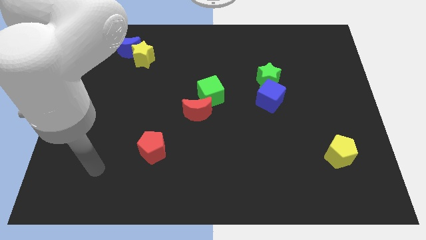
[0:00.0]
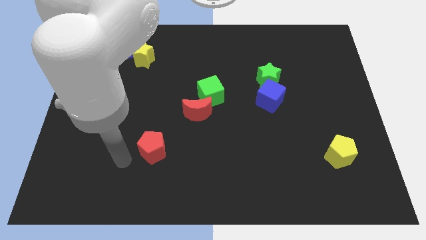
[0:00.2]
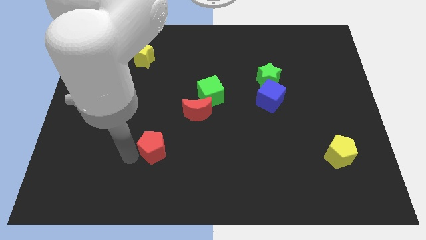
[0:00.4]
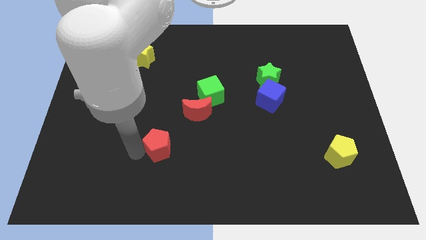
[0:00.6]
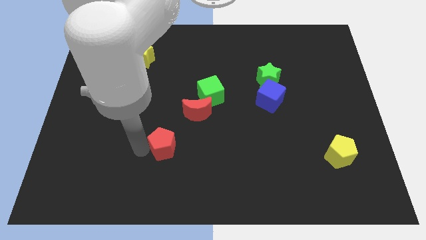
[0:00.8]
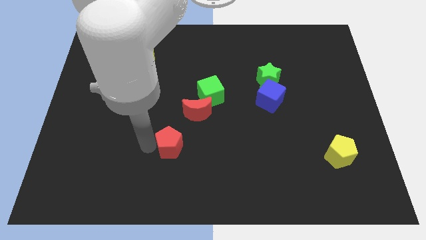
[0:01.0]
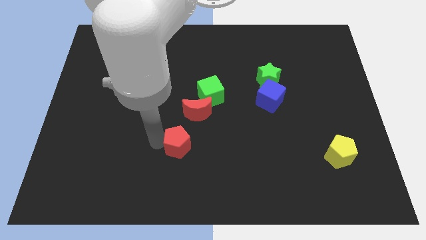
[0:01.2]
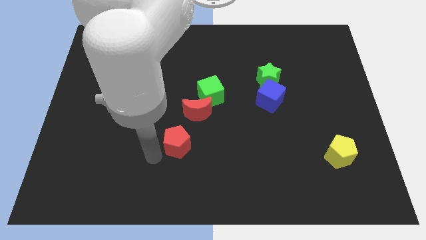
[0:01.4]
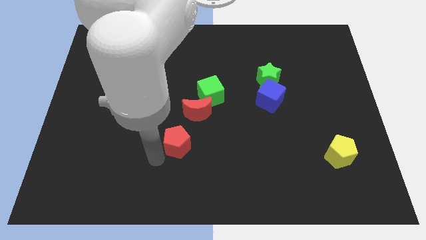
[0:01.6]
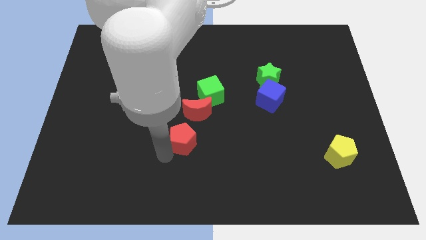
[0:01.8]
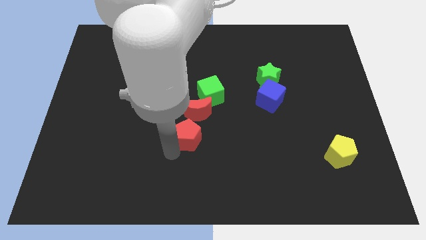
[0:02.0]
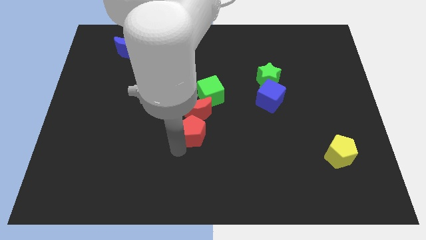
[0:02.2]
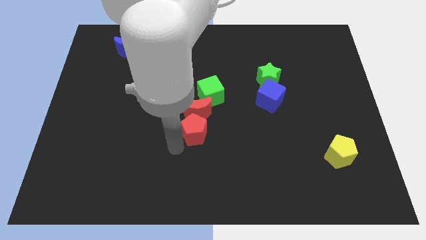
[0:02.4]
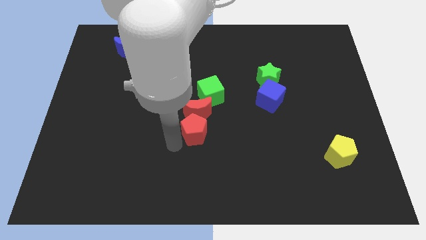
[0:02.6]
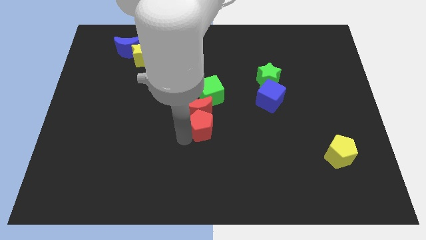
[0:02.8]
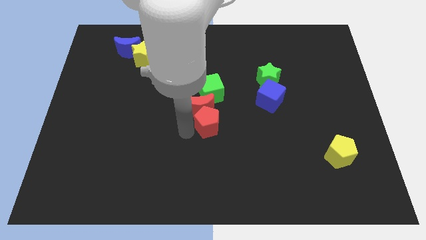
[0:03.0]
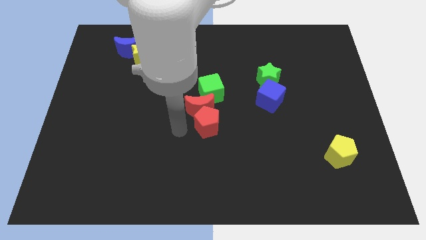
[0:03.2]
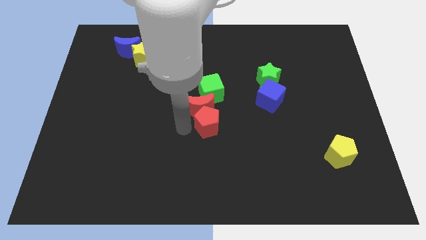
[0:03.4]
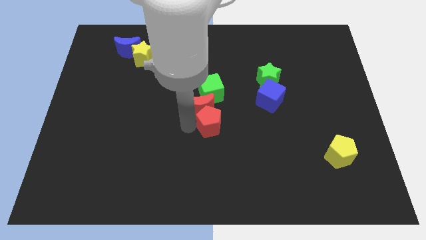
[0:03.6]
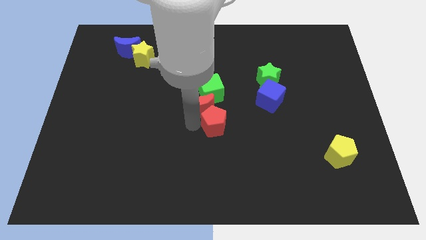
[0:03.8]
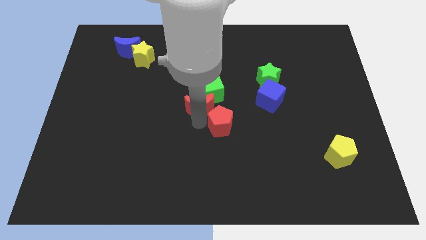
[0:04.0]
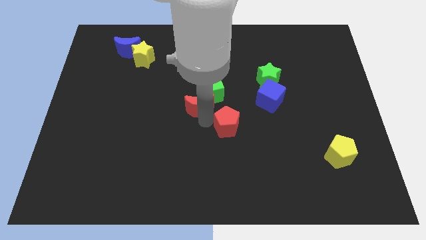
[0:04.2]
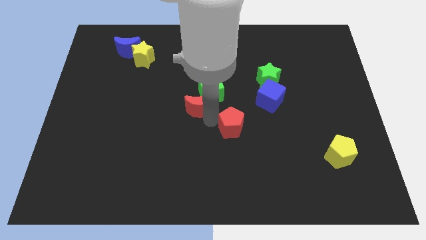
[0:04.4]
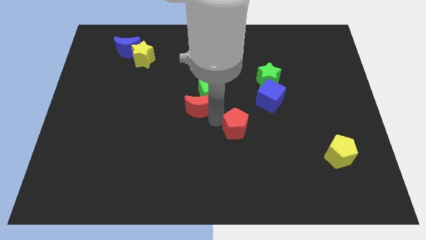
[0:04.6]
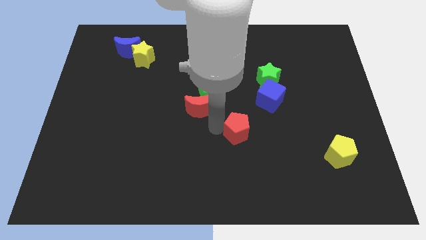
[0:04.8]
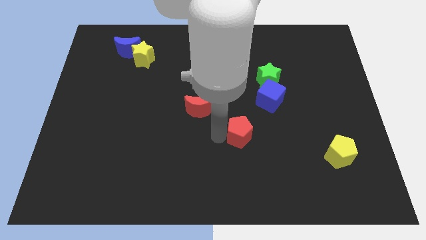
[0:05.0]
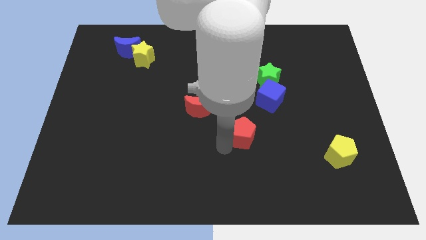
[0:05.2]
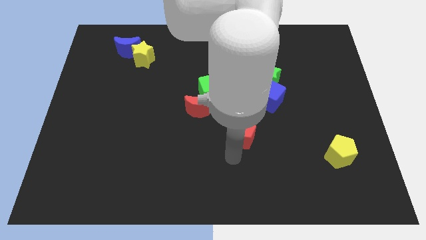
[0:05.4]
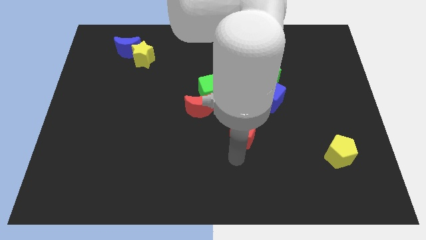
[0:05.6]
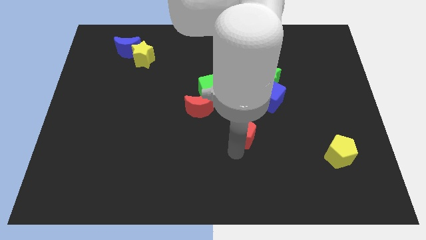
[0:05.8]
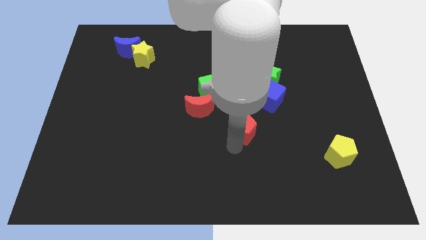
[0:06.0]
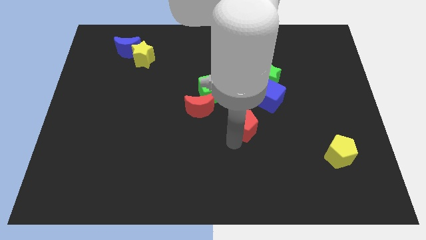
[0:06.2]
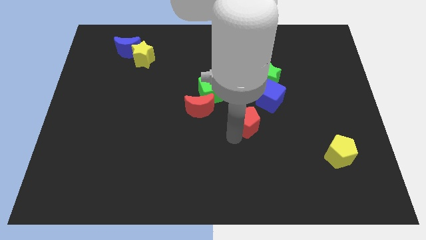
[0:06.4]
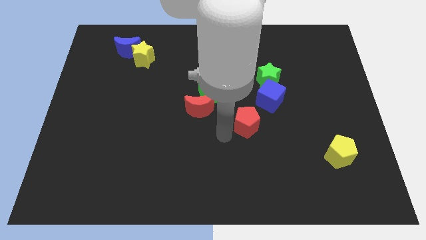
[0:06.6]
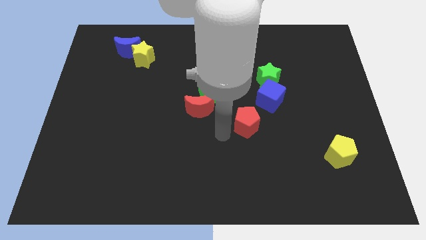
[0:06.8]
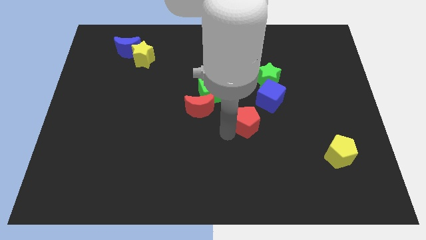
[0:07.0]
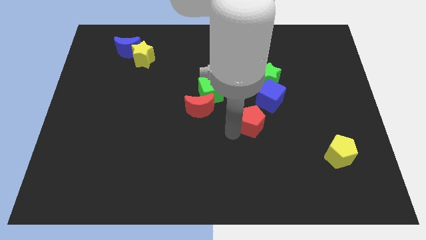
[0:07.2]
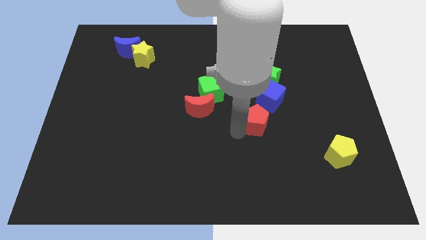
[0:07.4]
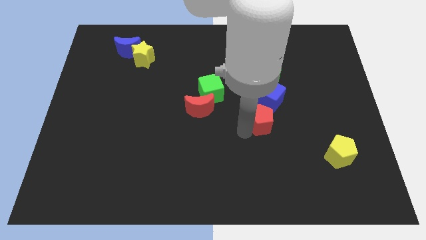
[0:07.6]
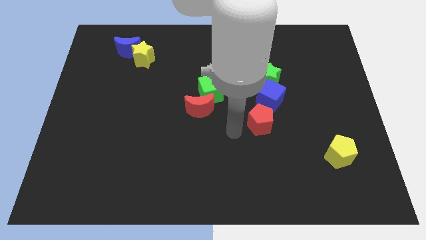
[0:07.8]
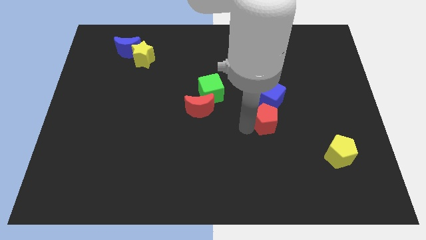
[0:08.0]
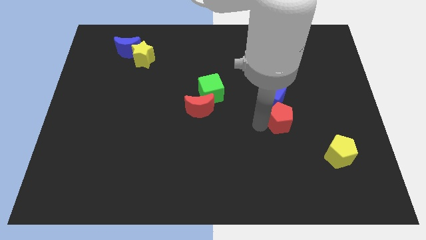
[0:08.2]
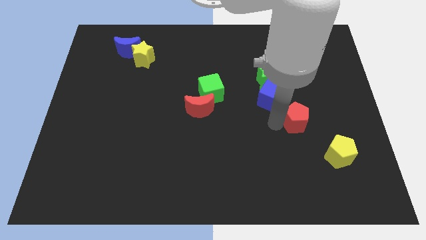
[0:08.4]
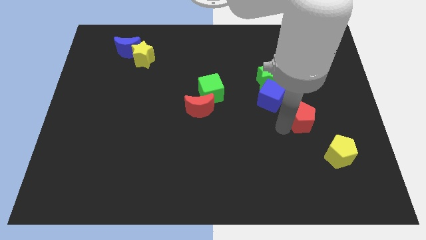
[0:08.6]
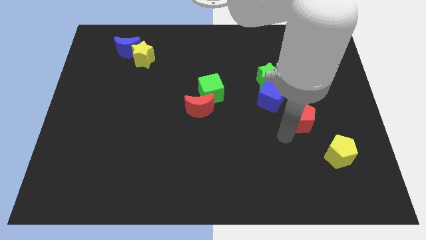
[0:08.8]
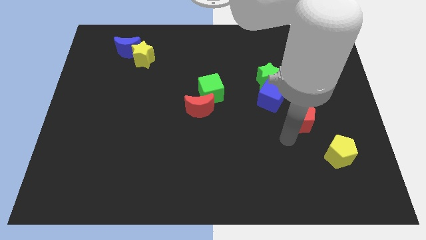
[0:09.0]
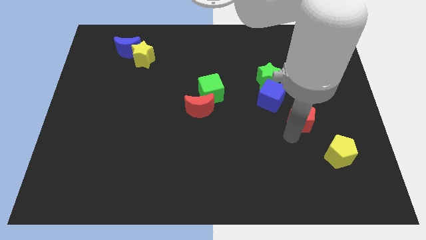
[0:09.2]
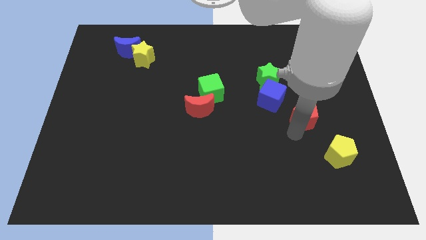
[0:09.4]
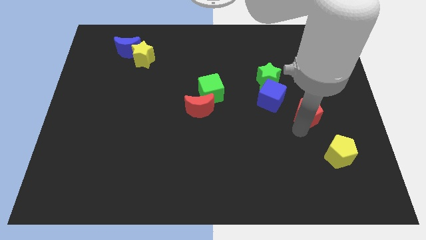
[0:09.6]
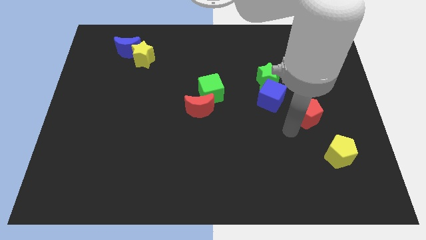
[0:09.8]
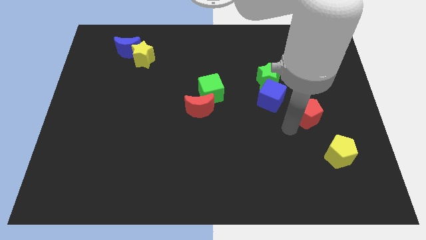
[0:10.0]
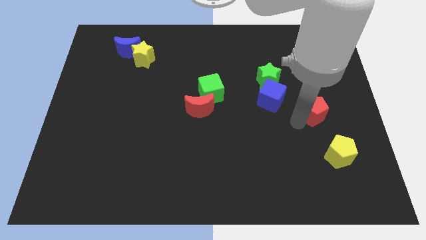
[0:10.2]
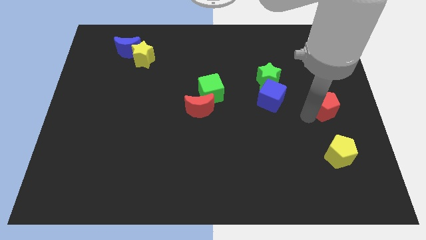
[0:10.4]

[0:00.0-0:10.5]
slide the red pentagon to the right side of the board

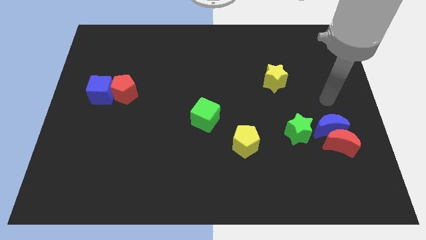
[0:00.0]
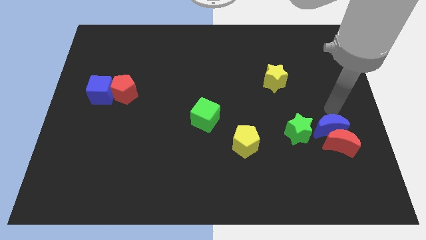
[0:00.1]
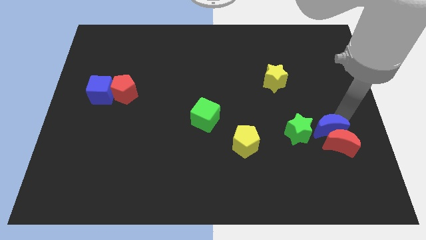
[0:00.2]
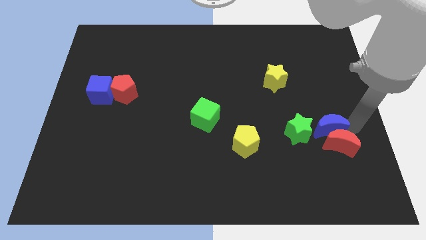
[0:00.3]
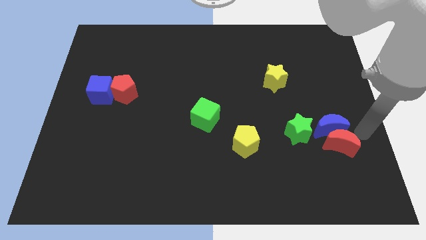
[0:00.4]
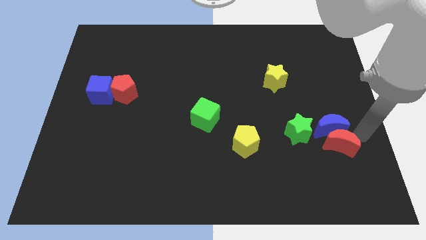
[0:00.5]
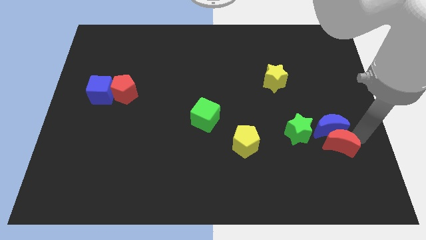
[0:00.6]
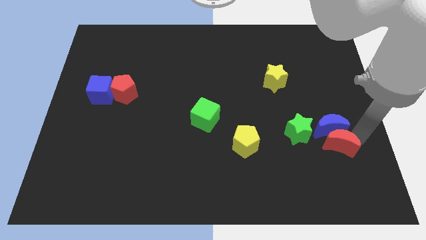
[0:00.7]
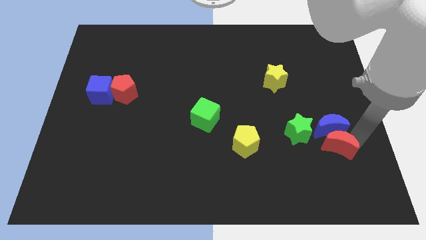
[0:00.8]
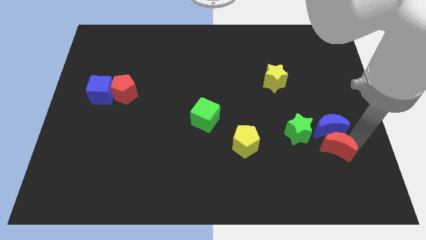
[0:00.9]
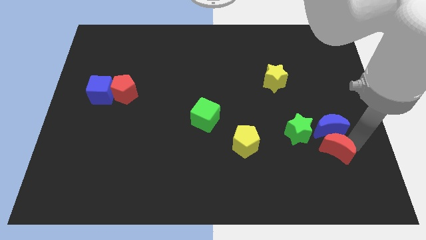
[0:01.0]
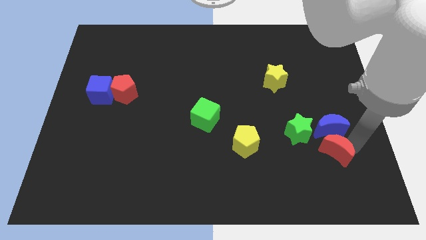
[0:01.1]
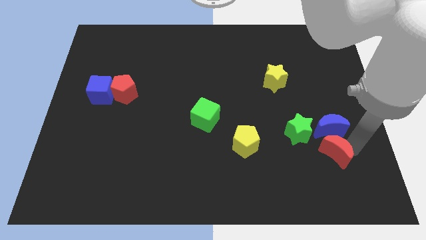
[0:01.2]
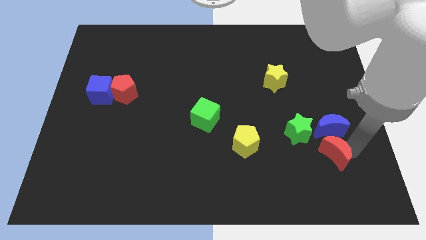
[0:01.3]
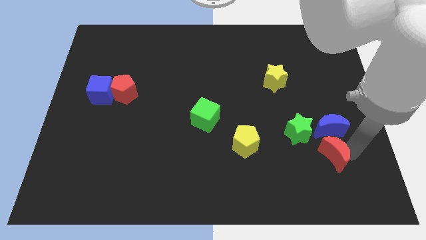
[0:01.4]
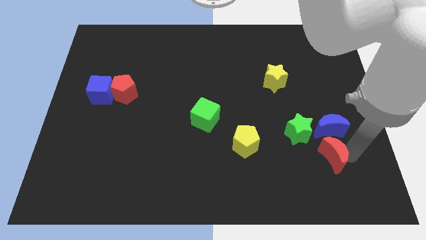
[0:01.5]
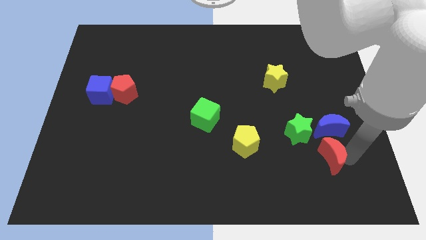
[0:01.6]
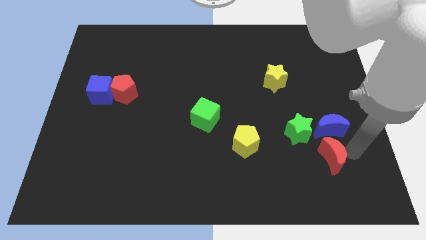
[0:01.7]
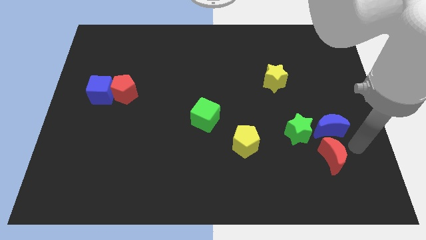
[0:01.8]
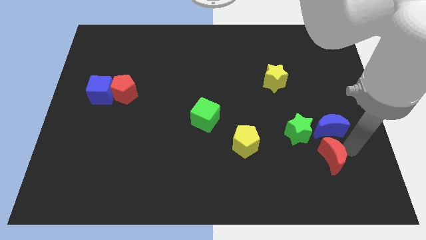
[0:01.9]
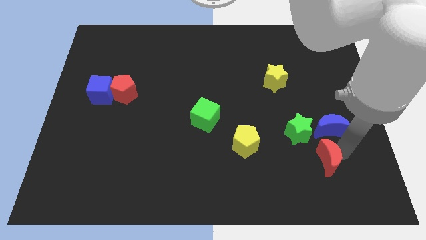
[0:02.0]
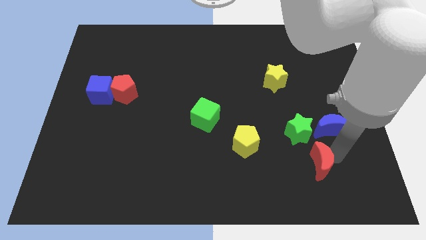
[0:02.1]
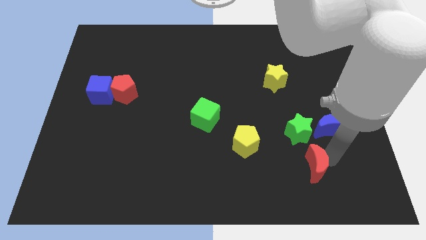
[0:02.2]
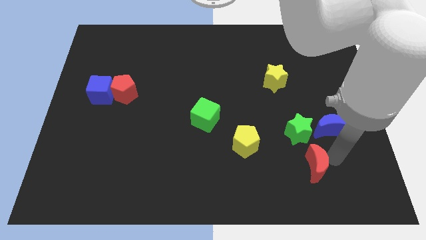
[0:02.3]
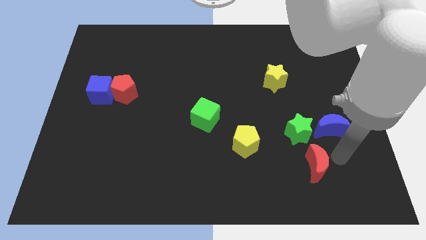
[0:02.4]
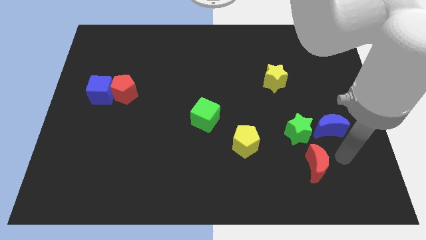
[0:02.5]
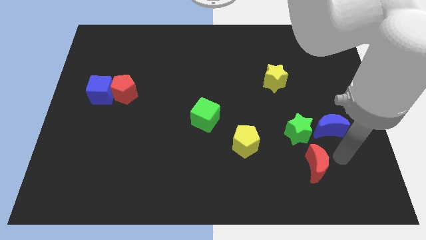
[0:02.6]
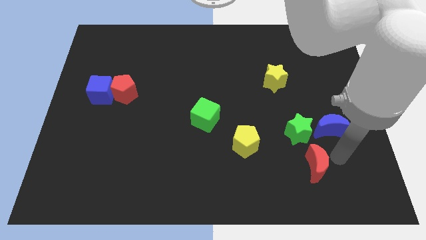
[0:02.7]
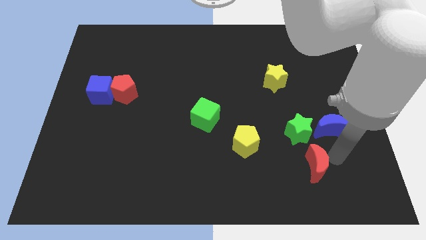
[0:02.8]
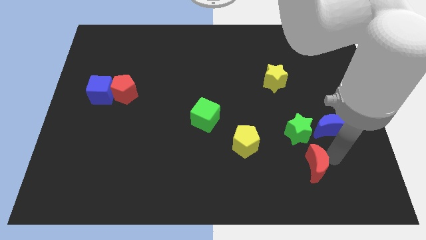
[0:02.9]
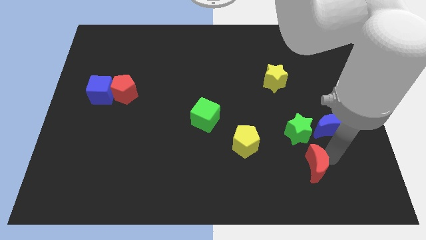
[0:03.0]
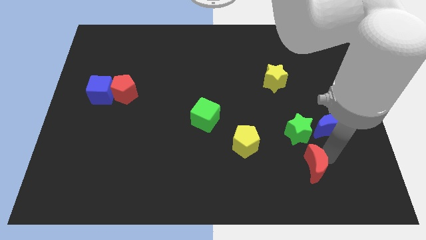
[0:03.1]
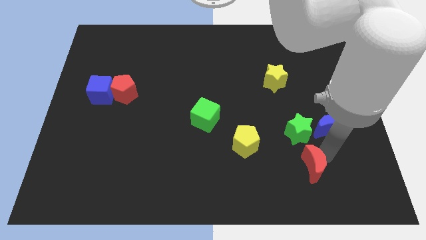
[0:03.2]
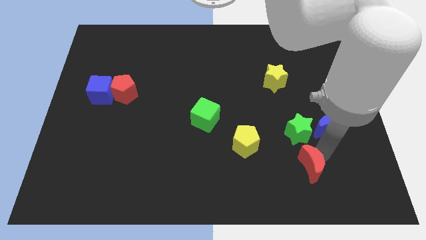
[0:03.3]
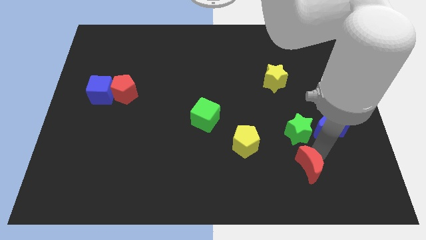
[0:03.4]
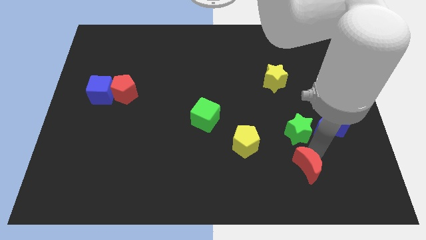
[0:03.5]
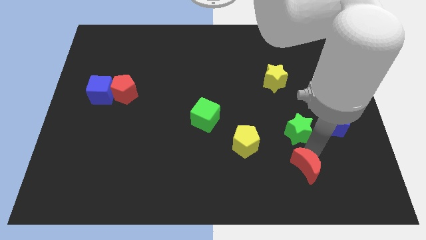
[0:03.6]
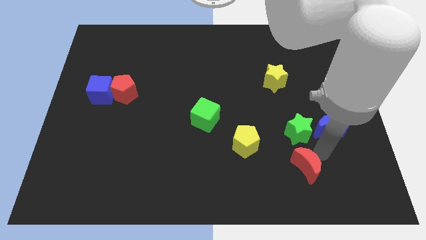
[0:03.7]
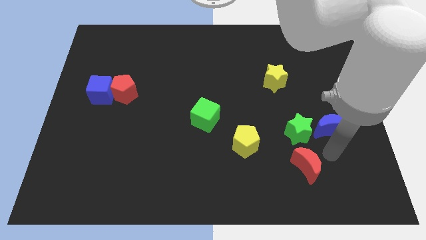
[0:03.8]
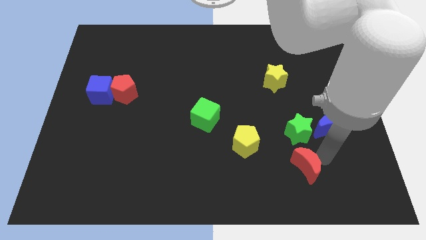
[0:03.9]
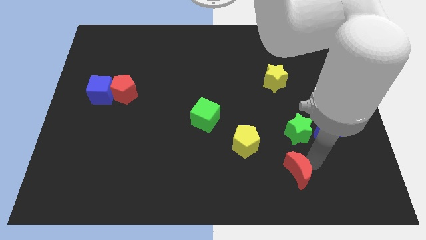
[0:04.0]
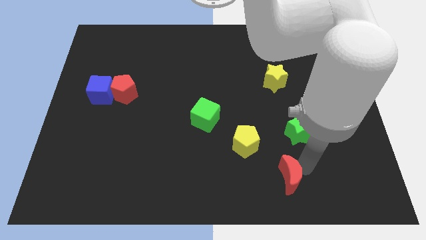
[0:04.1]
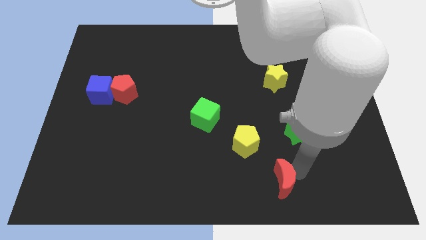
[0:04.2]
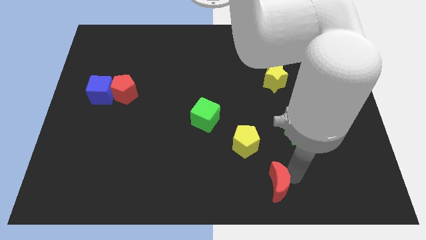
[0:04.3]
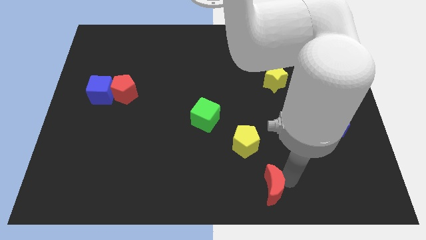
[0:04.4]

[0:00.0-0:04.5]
push the red moon to the bottom
